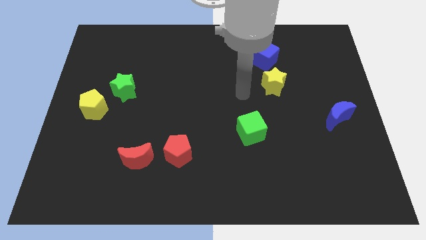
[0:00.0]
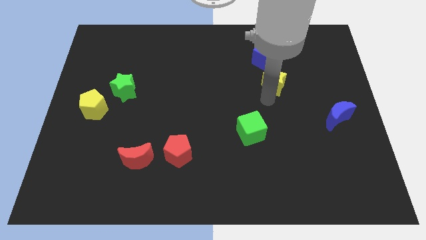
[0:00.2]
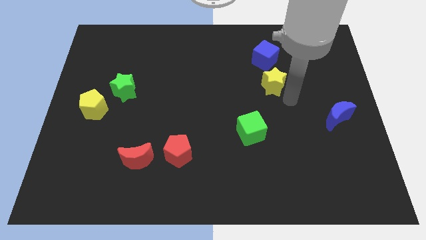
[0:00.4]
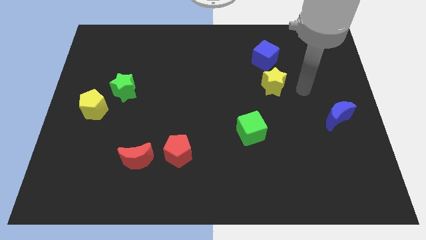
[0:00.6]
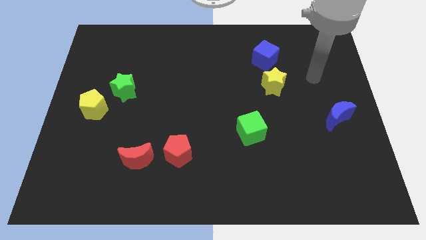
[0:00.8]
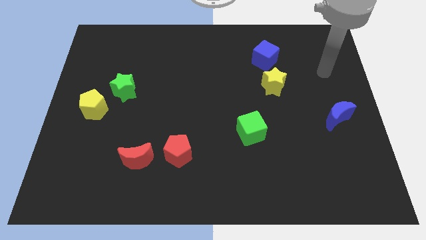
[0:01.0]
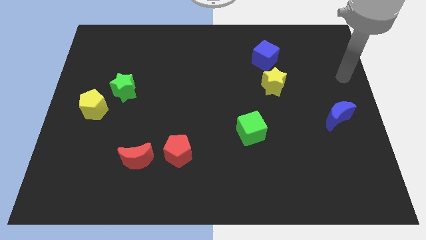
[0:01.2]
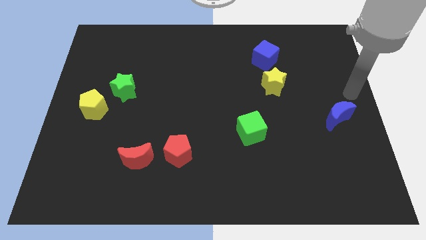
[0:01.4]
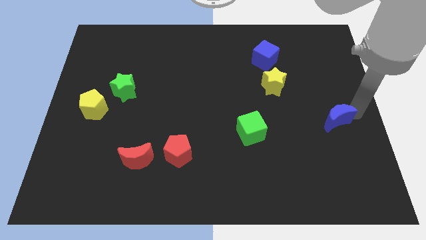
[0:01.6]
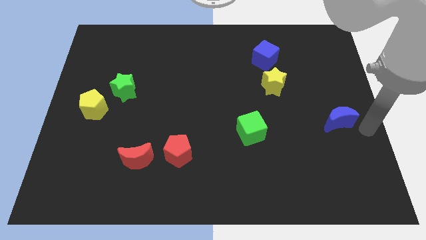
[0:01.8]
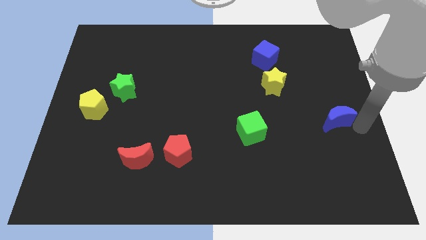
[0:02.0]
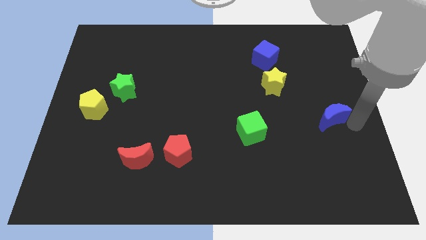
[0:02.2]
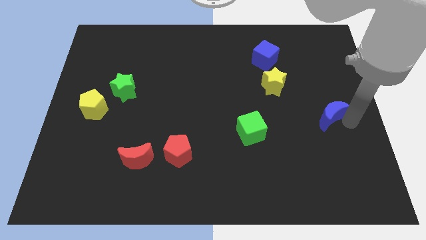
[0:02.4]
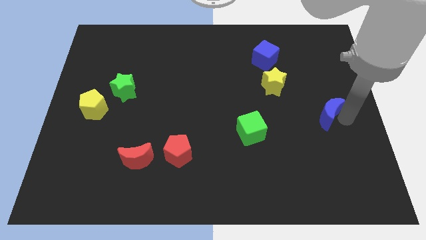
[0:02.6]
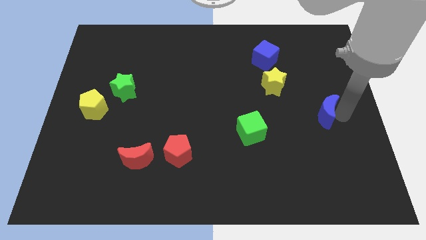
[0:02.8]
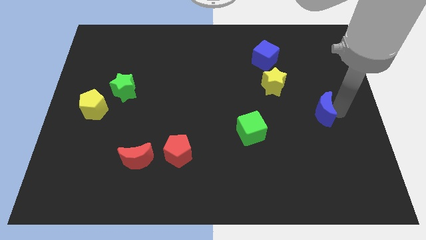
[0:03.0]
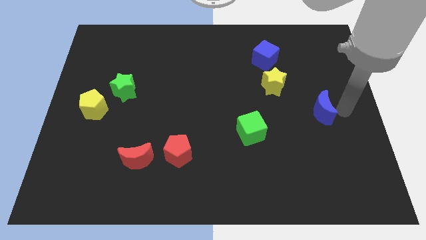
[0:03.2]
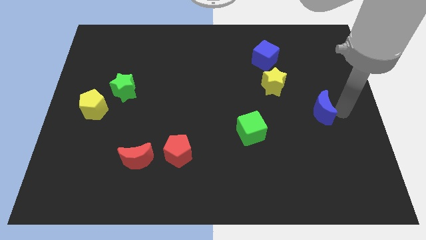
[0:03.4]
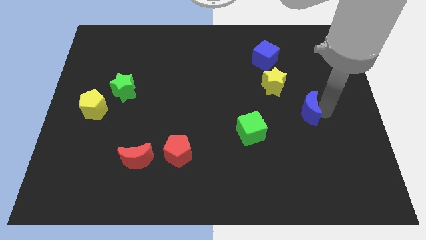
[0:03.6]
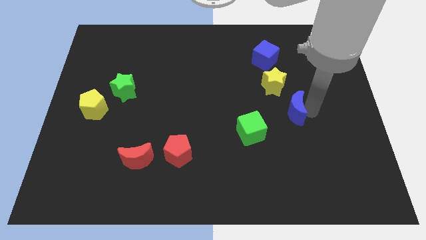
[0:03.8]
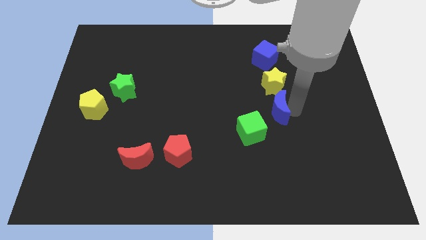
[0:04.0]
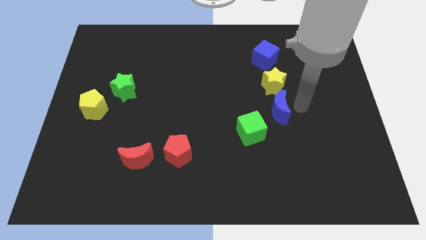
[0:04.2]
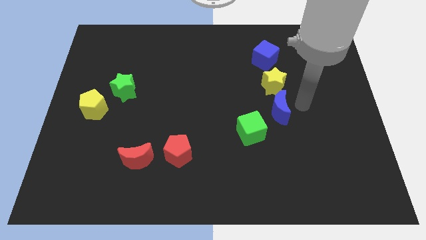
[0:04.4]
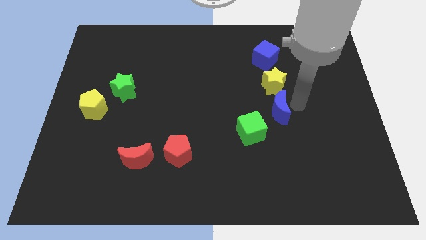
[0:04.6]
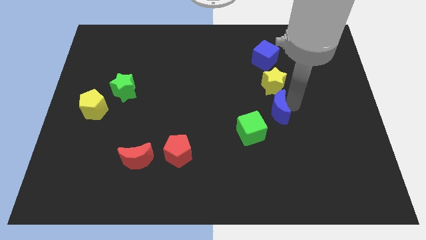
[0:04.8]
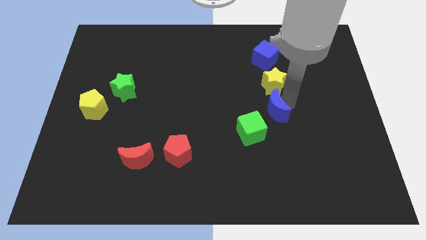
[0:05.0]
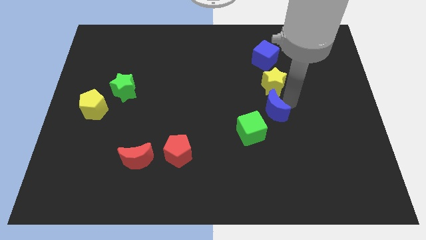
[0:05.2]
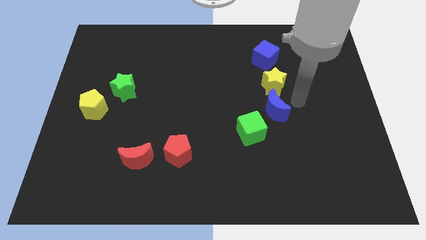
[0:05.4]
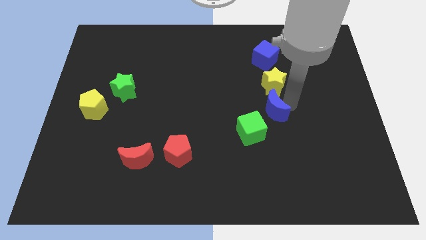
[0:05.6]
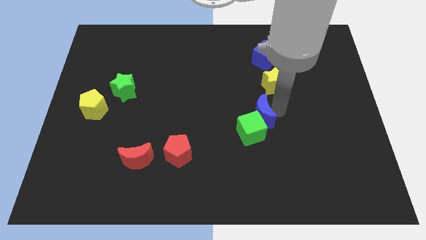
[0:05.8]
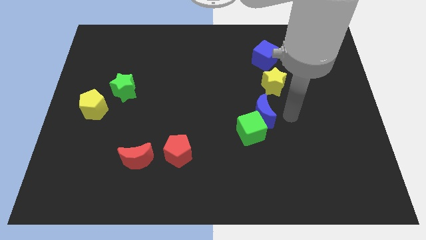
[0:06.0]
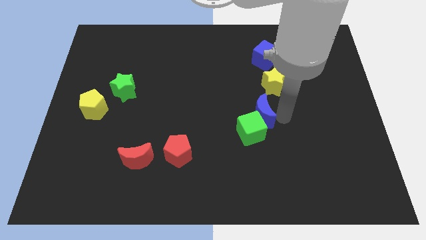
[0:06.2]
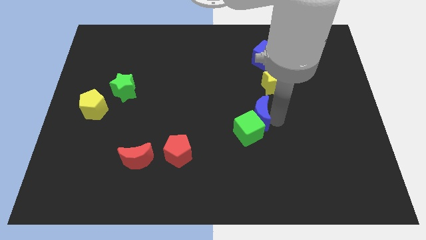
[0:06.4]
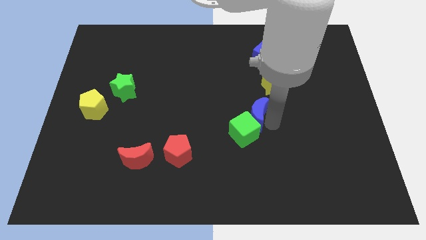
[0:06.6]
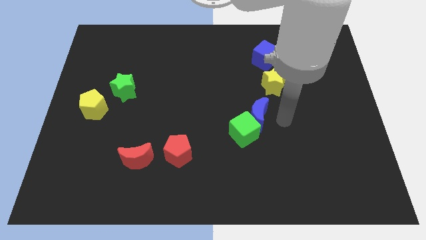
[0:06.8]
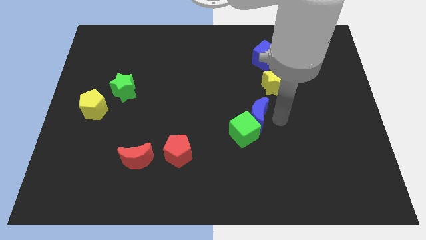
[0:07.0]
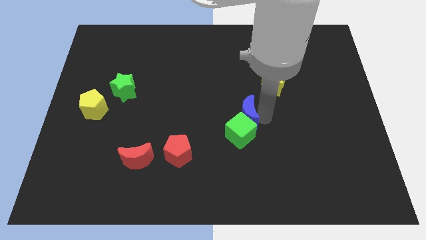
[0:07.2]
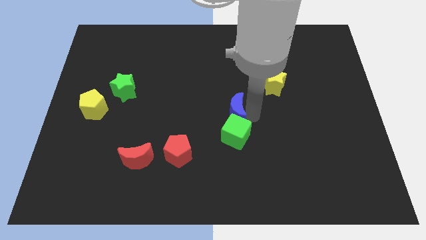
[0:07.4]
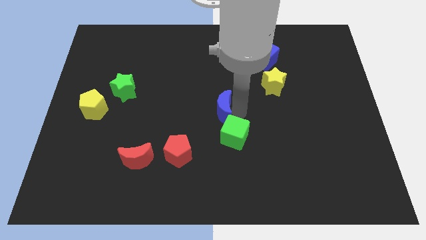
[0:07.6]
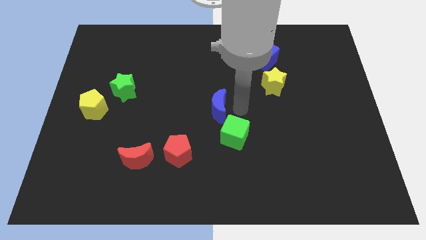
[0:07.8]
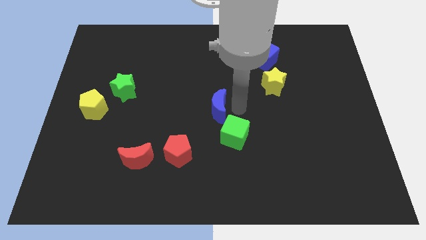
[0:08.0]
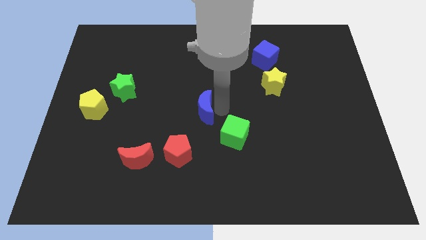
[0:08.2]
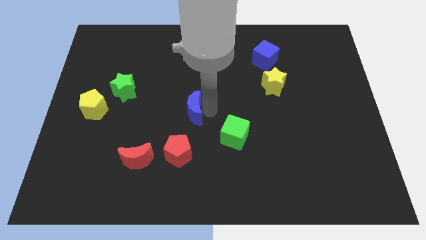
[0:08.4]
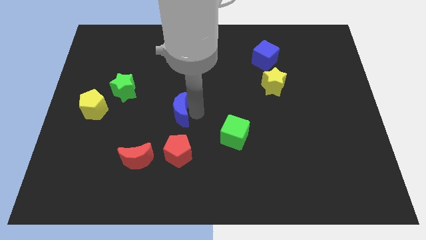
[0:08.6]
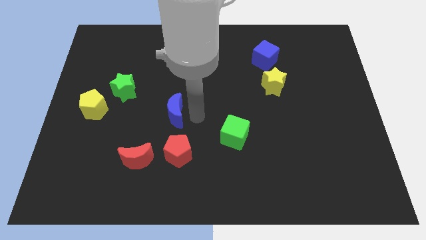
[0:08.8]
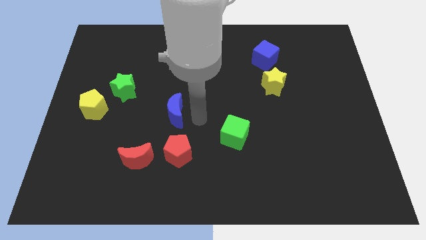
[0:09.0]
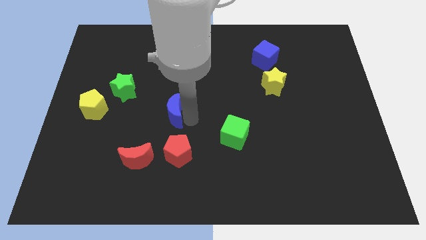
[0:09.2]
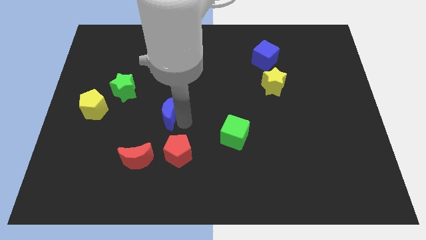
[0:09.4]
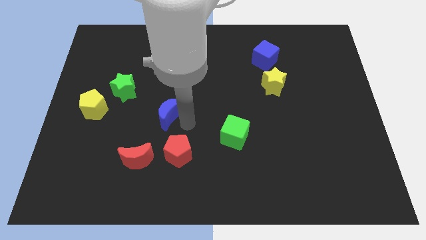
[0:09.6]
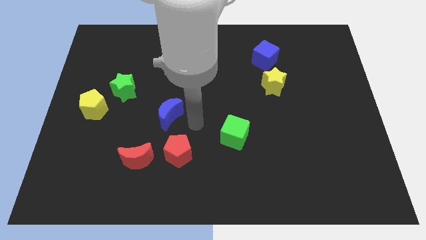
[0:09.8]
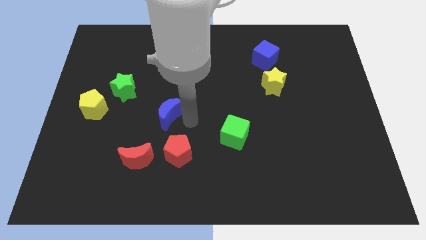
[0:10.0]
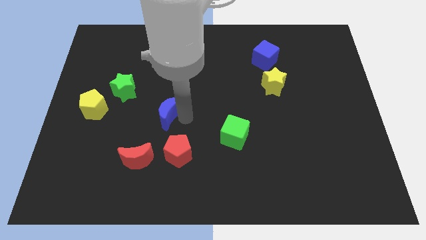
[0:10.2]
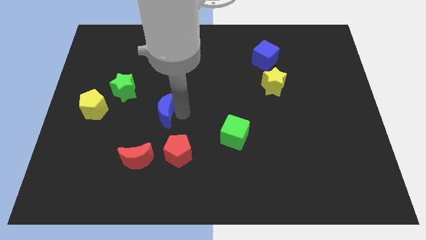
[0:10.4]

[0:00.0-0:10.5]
slide the blue moon to the bottom right of the green star

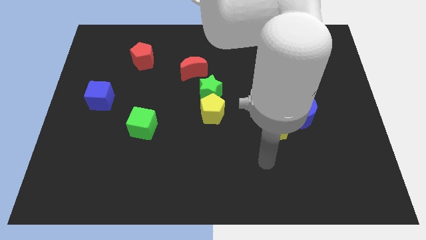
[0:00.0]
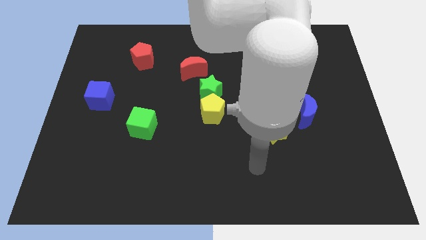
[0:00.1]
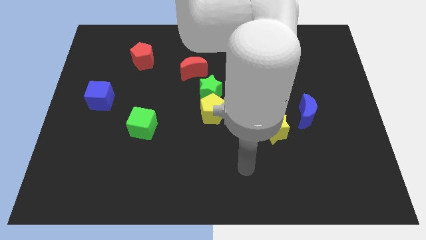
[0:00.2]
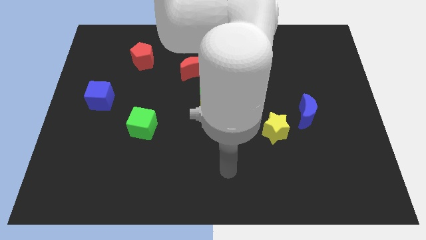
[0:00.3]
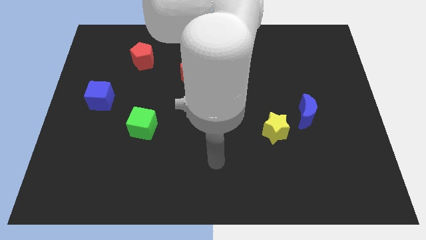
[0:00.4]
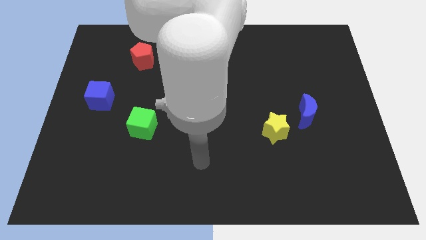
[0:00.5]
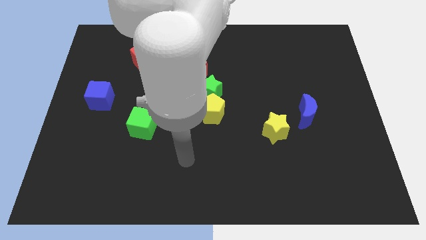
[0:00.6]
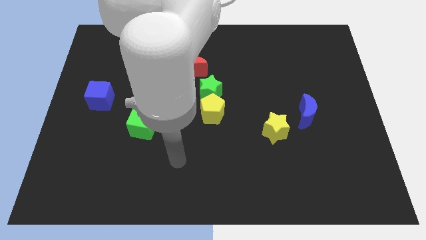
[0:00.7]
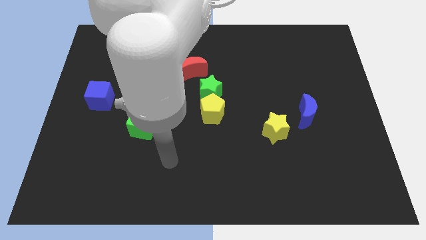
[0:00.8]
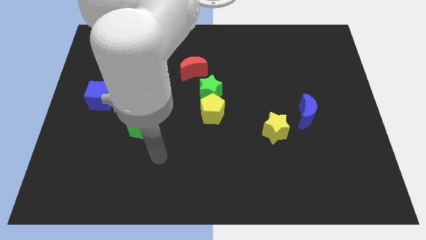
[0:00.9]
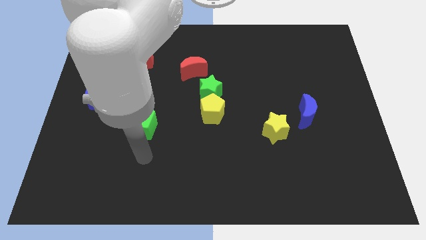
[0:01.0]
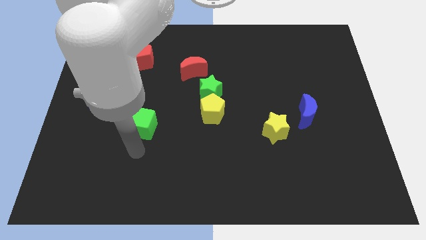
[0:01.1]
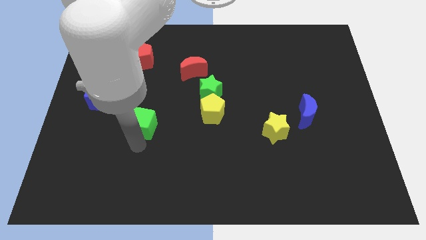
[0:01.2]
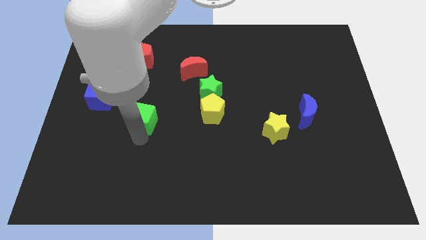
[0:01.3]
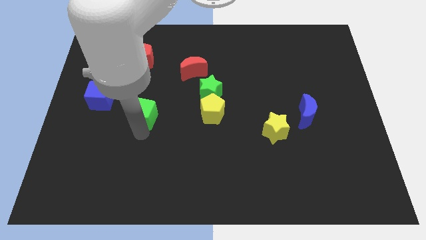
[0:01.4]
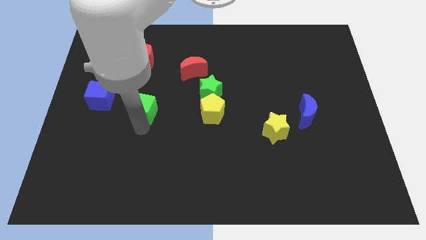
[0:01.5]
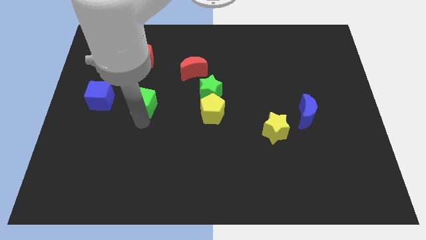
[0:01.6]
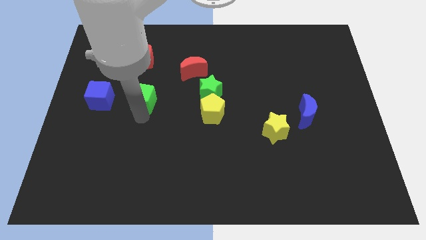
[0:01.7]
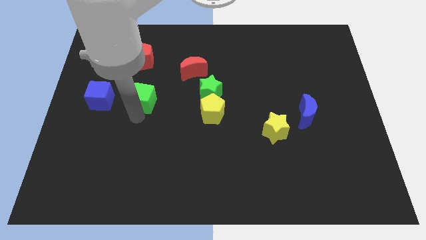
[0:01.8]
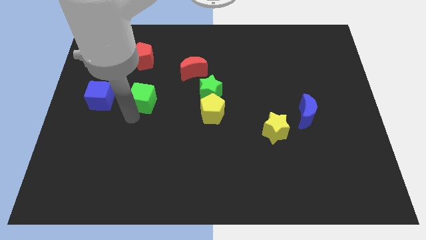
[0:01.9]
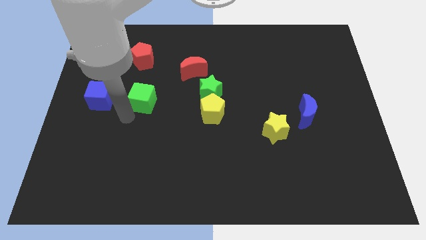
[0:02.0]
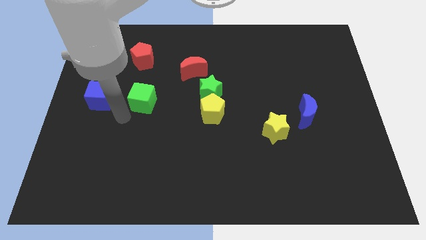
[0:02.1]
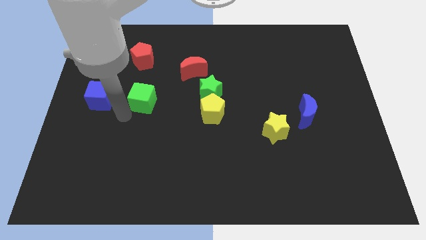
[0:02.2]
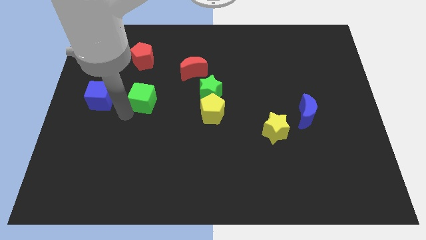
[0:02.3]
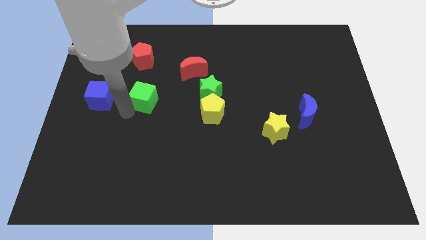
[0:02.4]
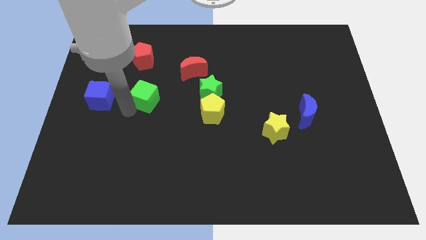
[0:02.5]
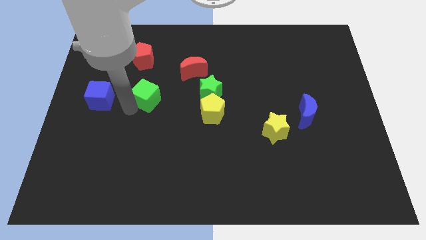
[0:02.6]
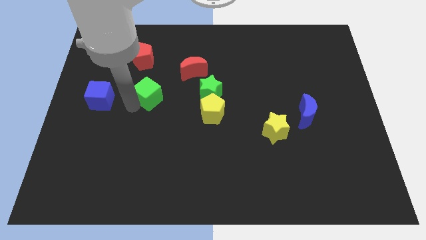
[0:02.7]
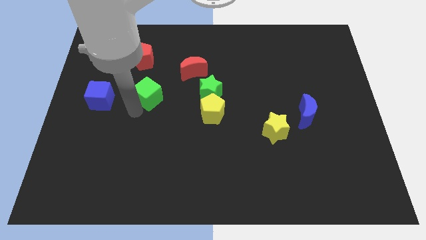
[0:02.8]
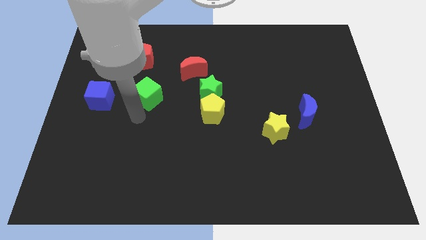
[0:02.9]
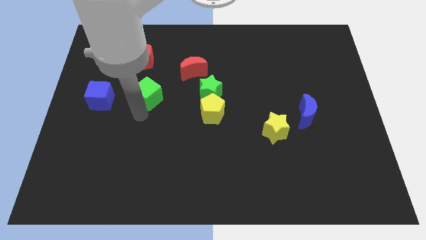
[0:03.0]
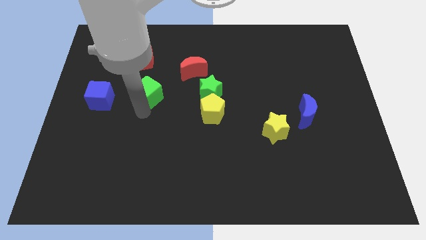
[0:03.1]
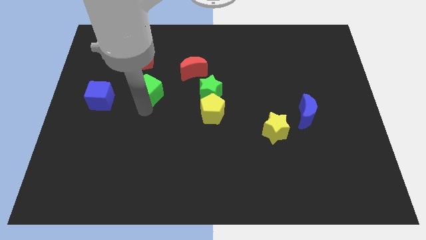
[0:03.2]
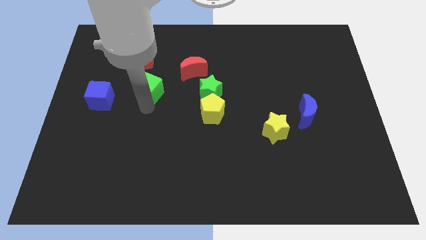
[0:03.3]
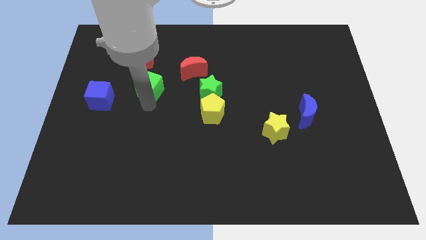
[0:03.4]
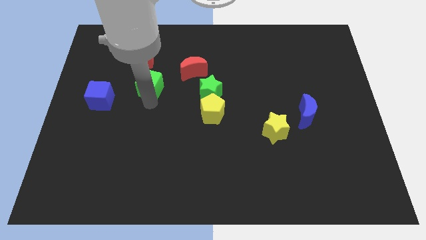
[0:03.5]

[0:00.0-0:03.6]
move the green cube diagonally down and to the right of the red pentagon
